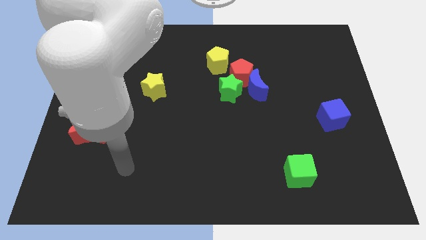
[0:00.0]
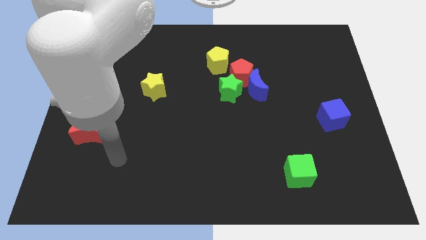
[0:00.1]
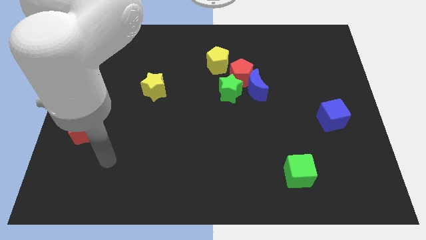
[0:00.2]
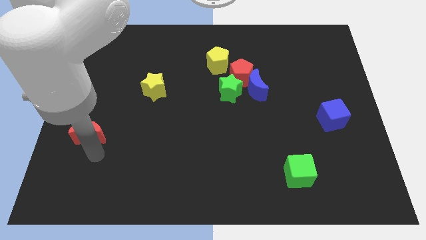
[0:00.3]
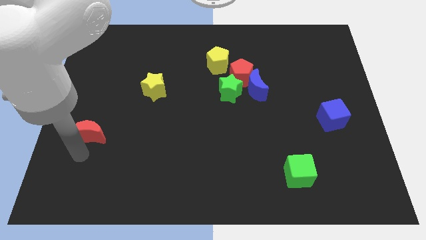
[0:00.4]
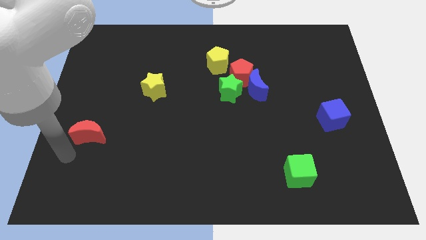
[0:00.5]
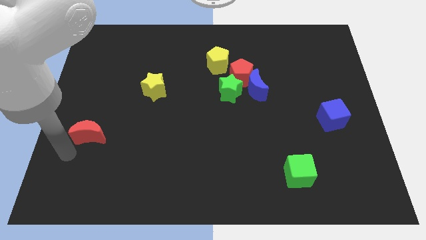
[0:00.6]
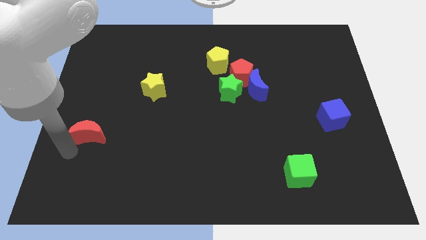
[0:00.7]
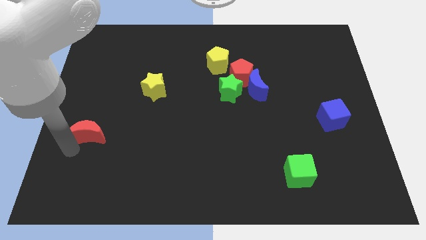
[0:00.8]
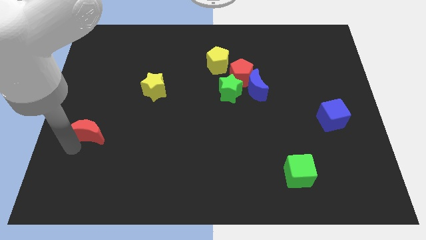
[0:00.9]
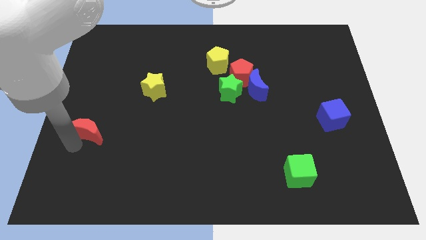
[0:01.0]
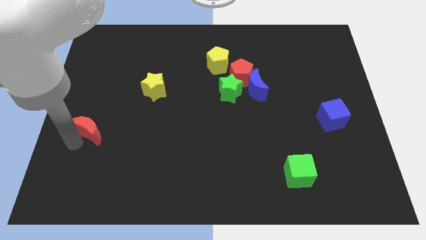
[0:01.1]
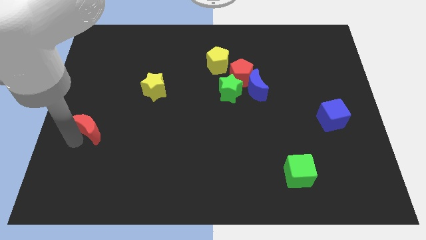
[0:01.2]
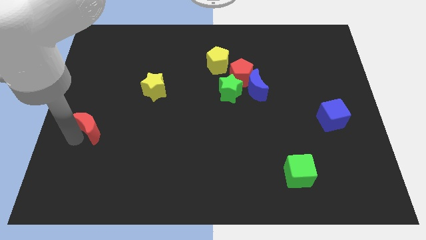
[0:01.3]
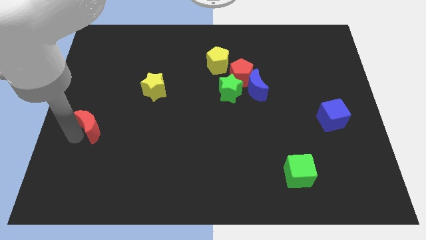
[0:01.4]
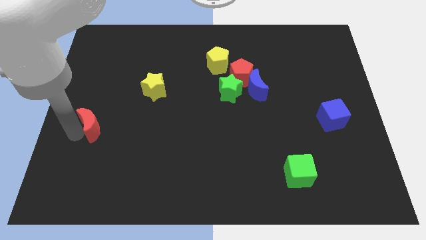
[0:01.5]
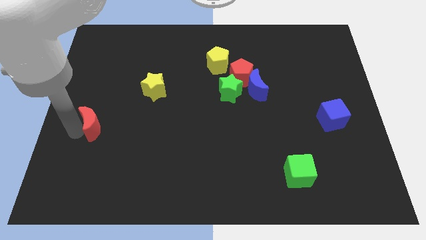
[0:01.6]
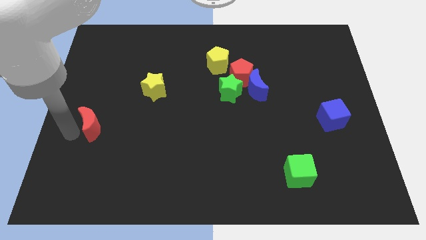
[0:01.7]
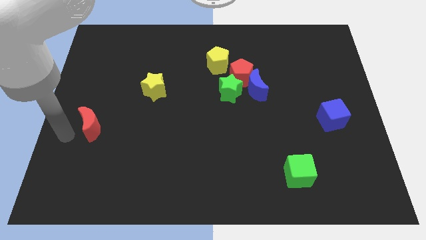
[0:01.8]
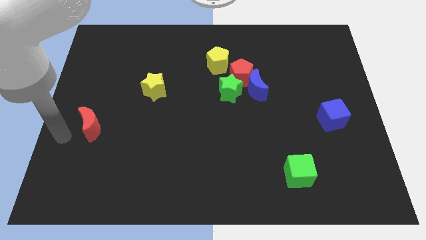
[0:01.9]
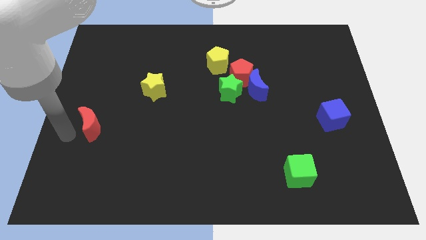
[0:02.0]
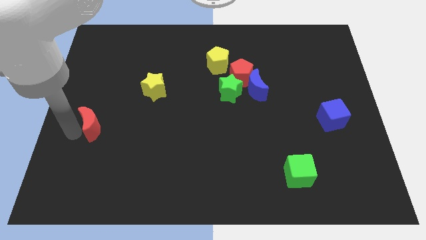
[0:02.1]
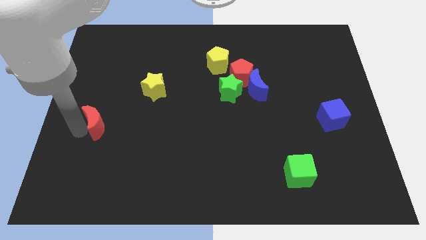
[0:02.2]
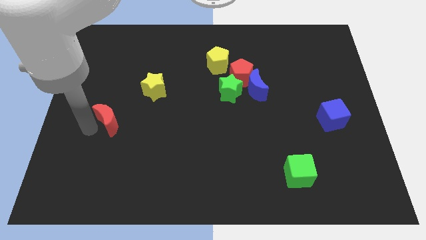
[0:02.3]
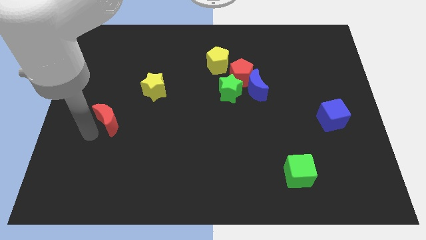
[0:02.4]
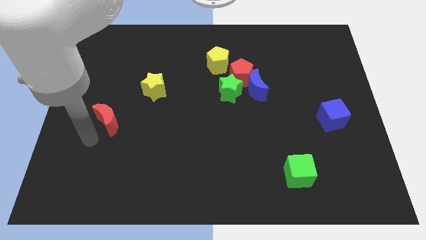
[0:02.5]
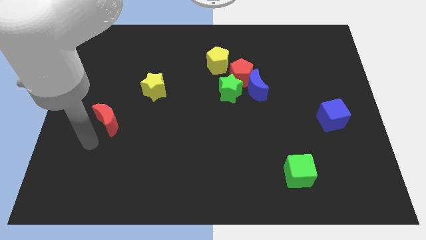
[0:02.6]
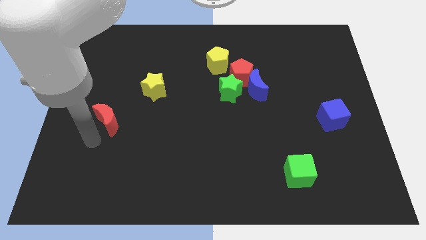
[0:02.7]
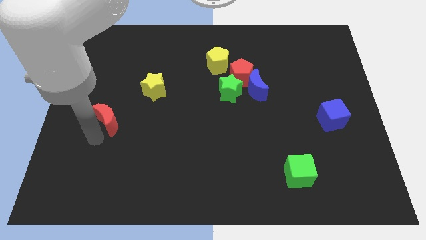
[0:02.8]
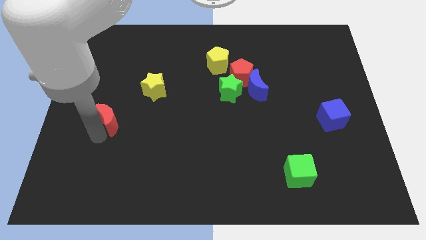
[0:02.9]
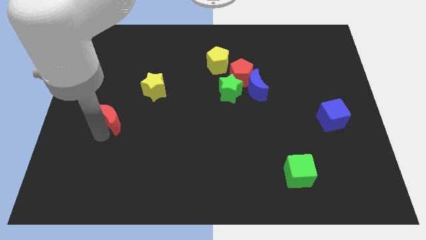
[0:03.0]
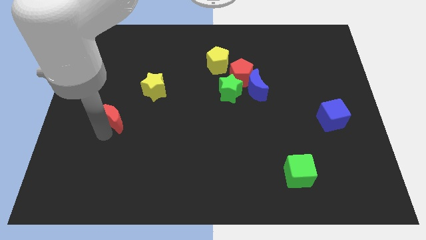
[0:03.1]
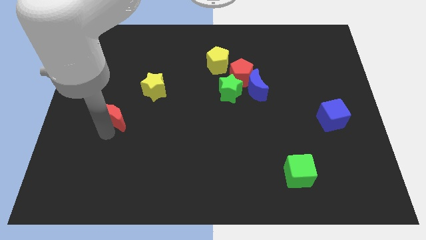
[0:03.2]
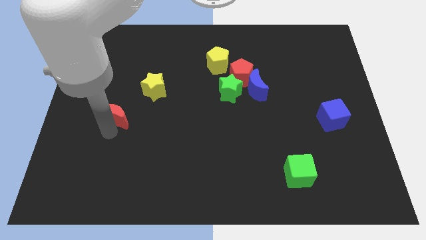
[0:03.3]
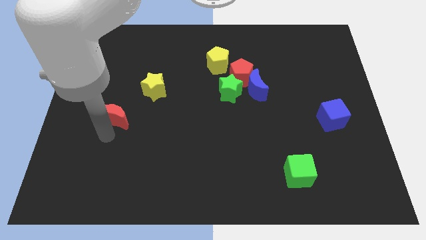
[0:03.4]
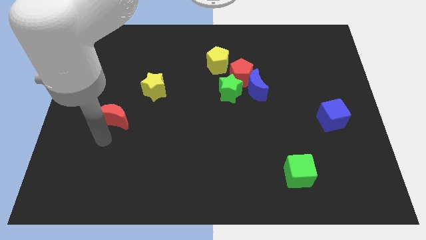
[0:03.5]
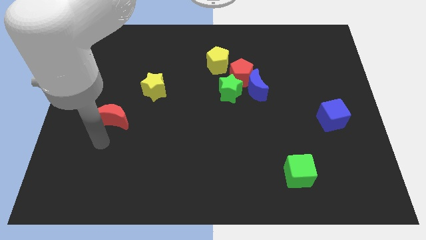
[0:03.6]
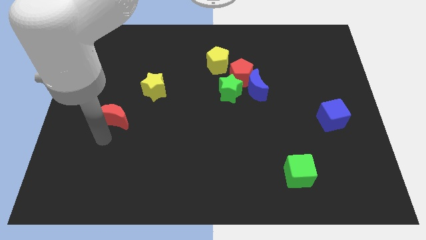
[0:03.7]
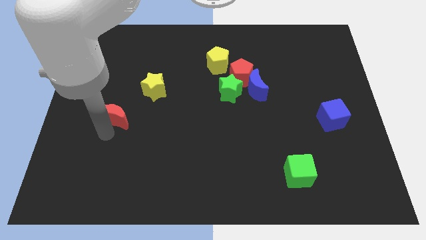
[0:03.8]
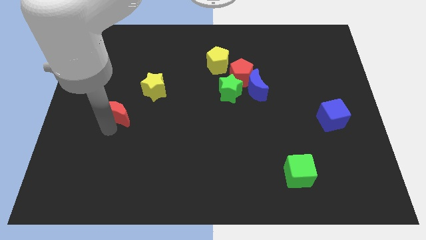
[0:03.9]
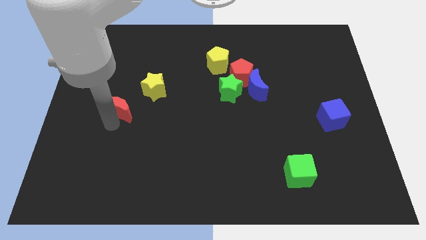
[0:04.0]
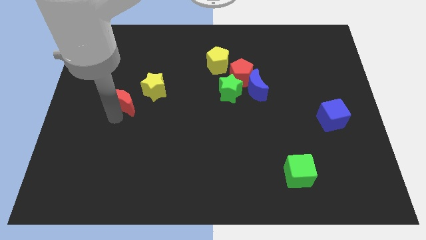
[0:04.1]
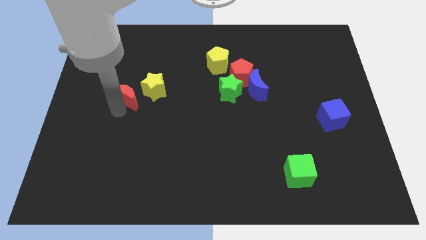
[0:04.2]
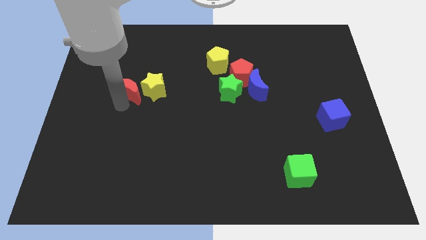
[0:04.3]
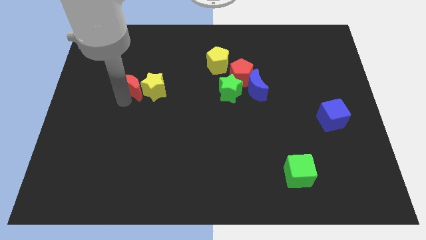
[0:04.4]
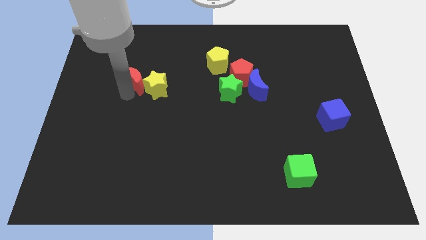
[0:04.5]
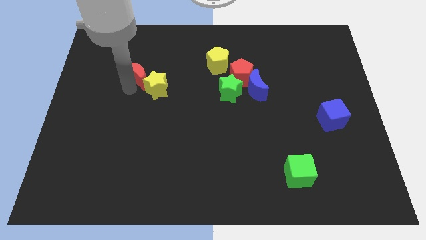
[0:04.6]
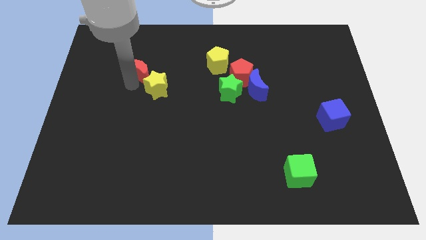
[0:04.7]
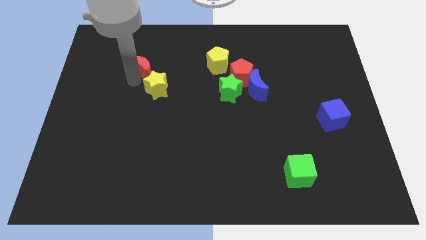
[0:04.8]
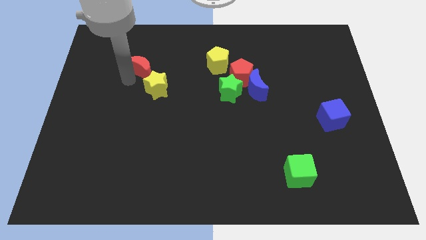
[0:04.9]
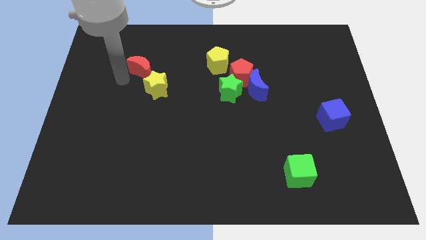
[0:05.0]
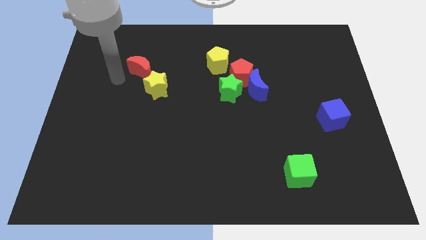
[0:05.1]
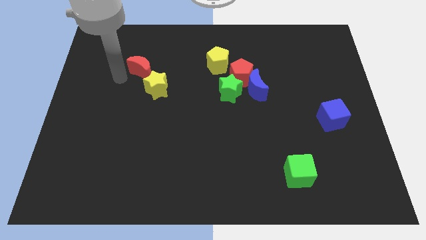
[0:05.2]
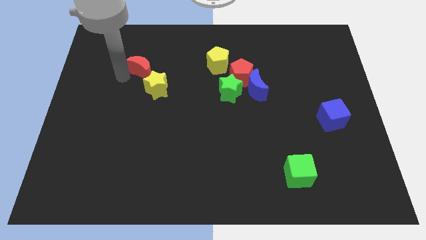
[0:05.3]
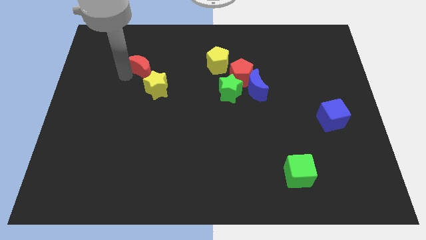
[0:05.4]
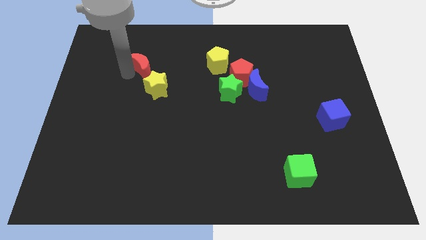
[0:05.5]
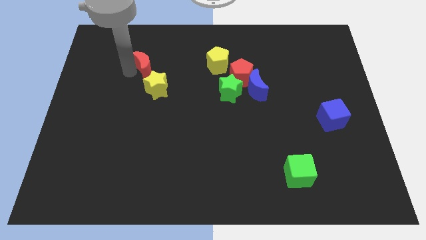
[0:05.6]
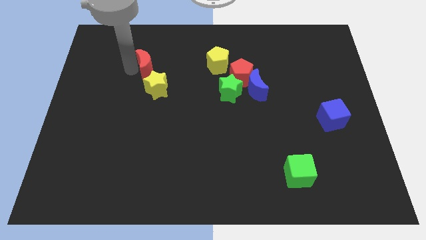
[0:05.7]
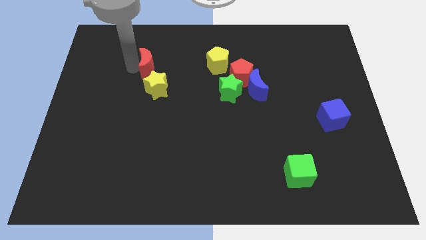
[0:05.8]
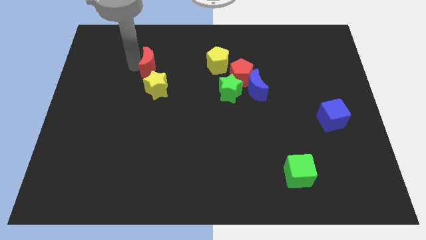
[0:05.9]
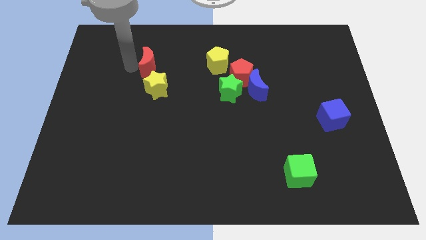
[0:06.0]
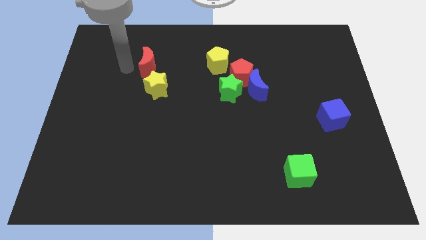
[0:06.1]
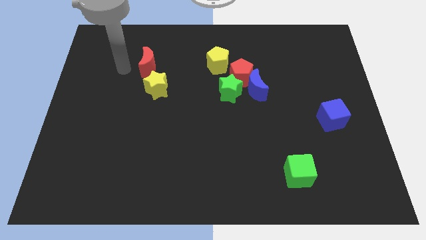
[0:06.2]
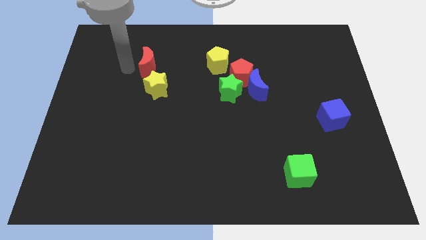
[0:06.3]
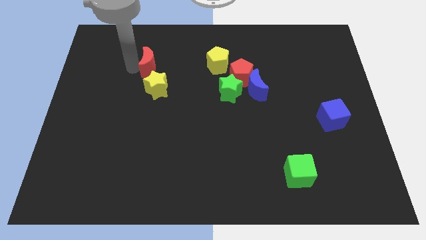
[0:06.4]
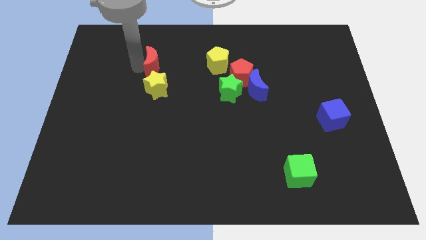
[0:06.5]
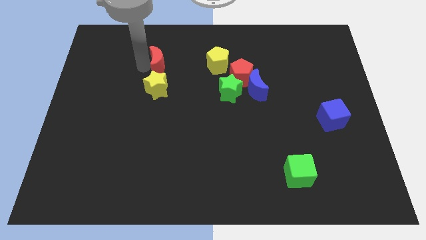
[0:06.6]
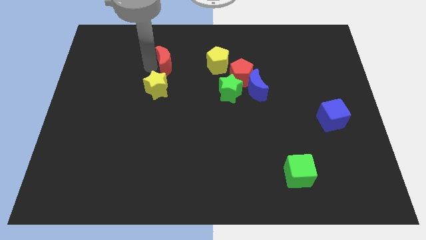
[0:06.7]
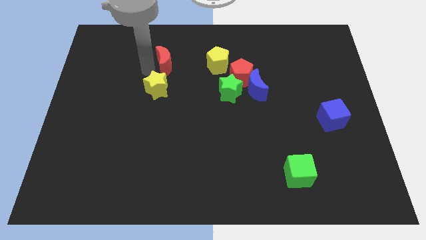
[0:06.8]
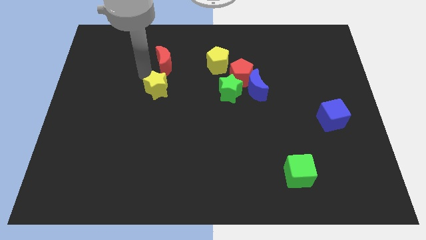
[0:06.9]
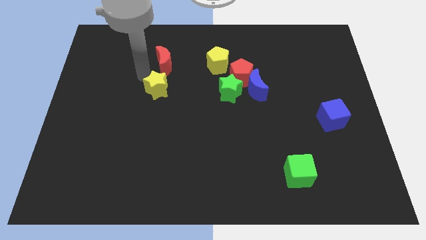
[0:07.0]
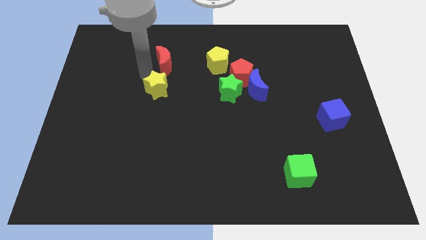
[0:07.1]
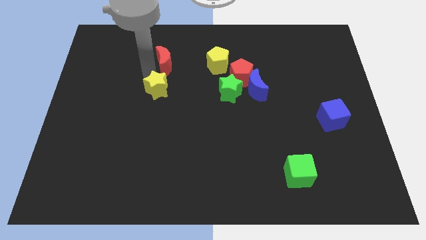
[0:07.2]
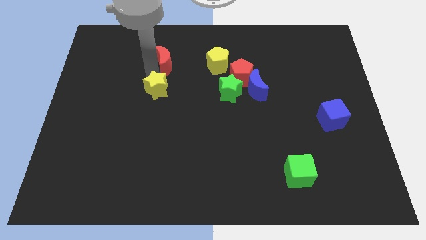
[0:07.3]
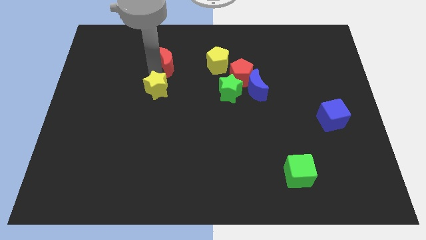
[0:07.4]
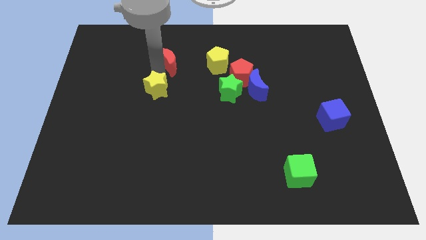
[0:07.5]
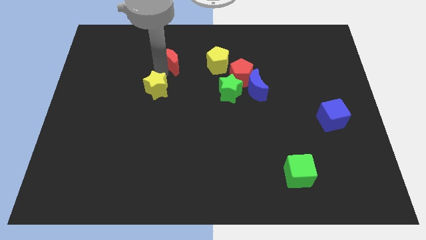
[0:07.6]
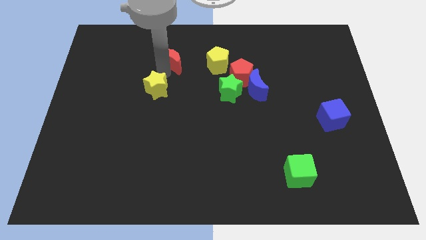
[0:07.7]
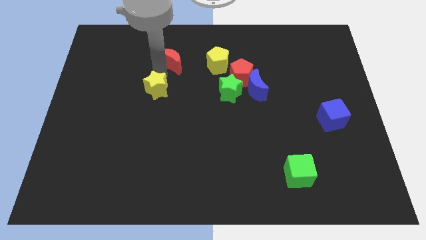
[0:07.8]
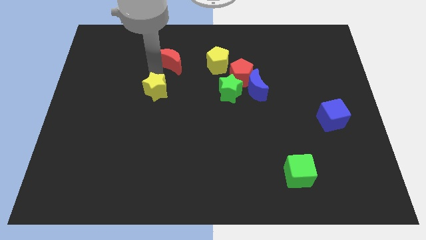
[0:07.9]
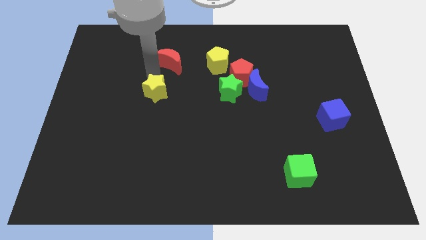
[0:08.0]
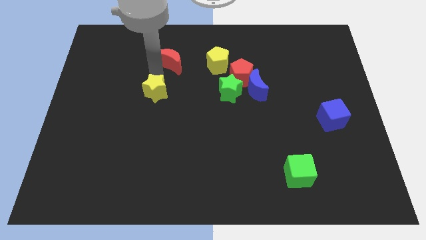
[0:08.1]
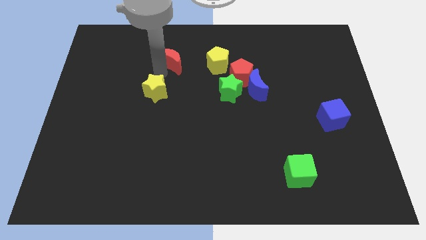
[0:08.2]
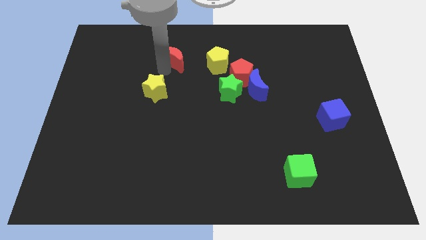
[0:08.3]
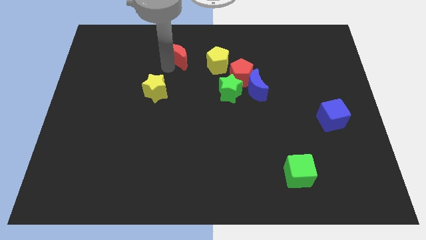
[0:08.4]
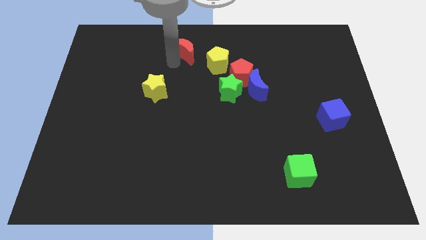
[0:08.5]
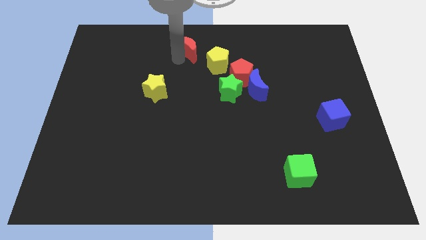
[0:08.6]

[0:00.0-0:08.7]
move the red moon to the top
